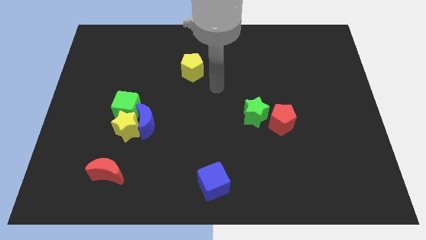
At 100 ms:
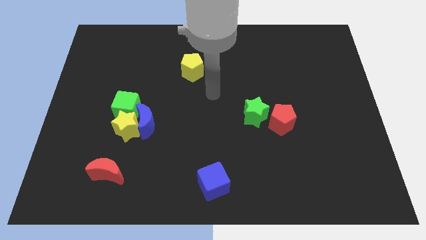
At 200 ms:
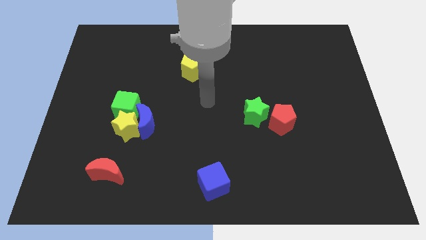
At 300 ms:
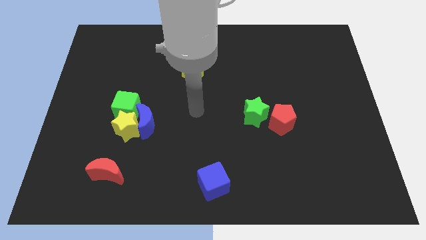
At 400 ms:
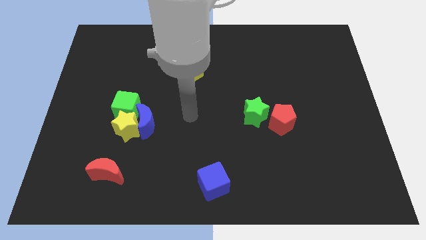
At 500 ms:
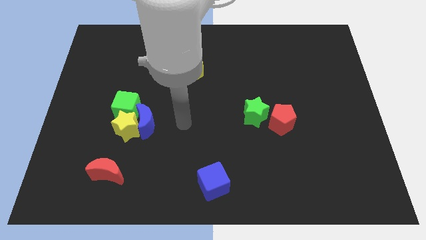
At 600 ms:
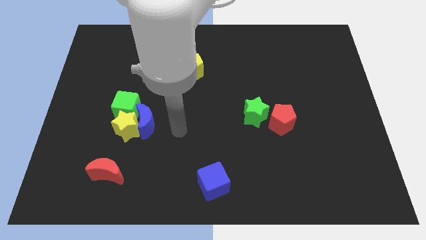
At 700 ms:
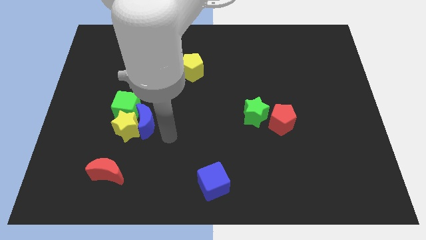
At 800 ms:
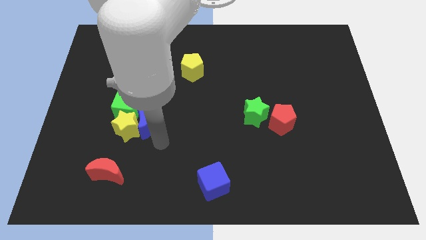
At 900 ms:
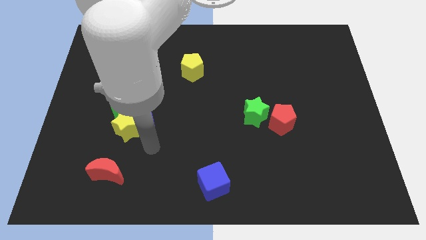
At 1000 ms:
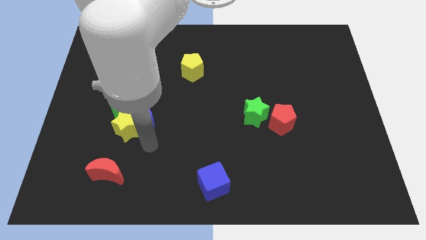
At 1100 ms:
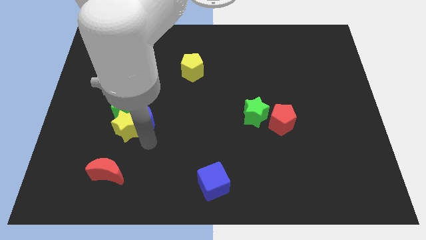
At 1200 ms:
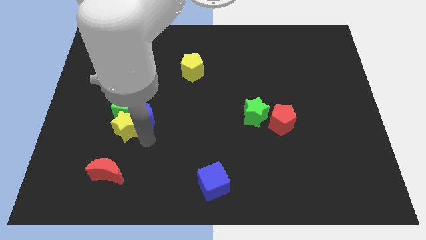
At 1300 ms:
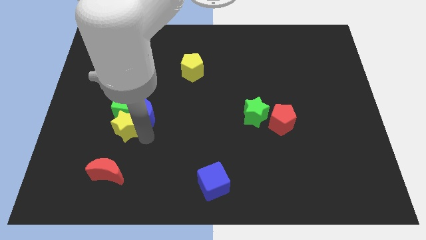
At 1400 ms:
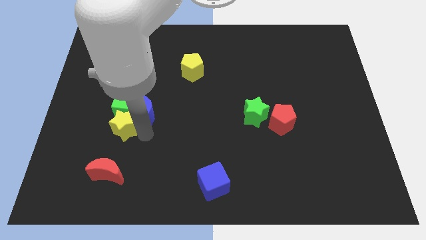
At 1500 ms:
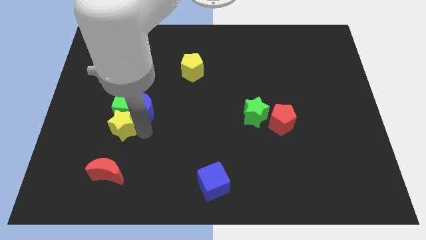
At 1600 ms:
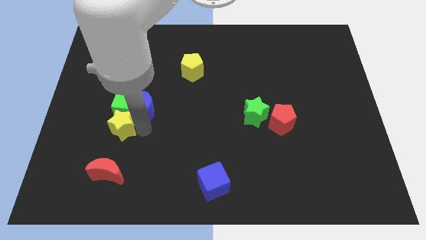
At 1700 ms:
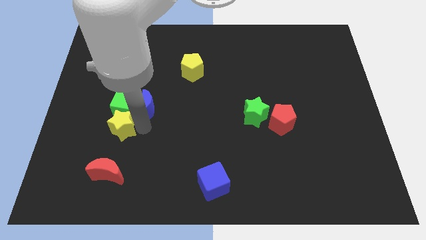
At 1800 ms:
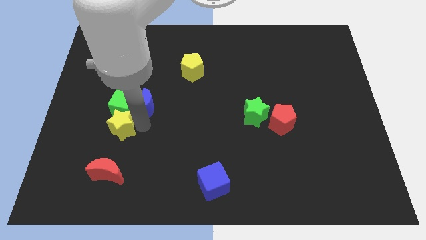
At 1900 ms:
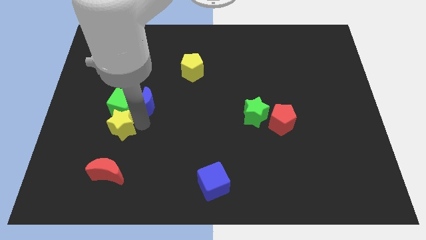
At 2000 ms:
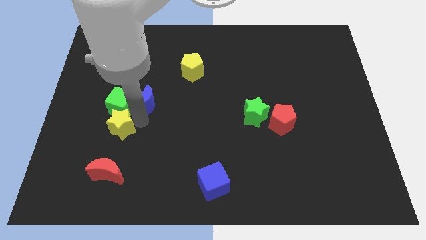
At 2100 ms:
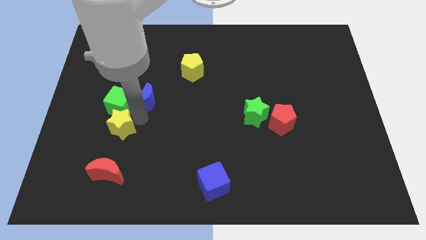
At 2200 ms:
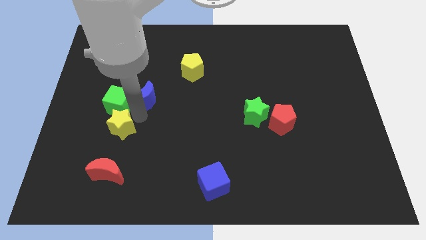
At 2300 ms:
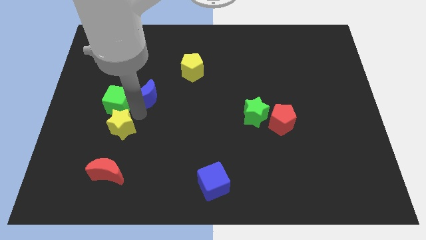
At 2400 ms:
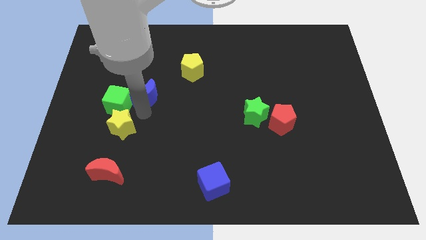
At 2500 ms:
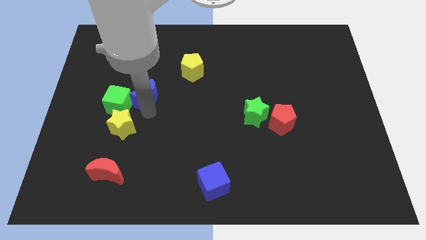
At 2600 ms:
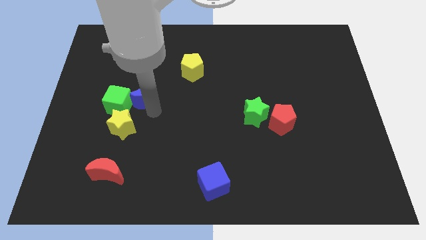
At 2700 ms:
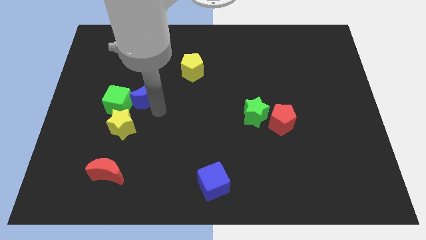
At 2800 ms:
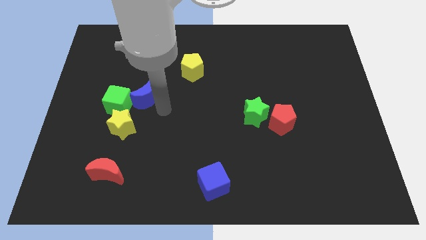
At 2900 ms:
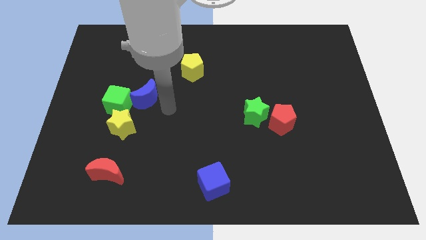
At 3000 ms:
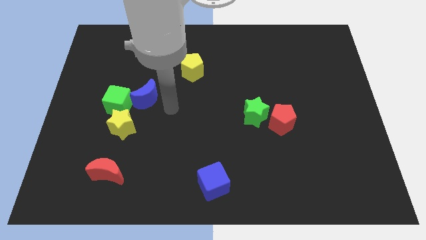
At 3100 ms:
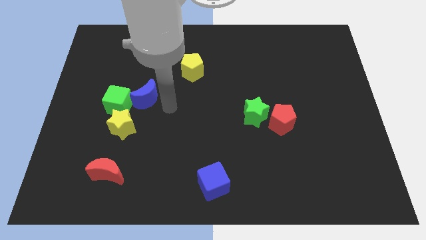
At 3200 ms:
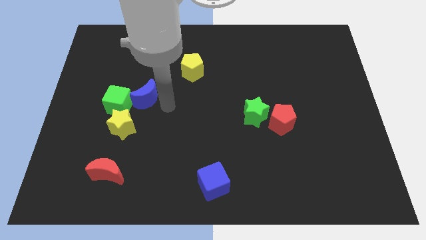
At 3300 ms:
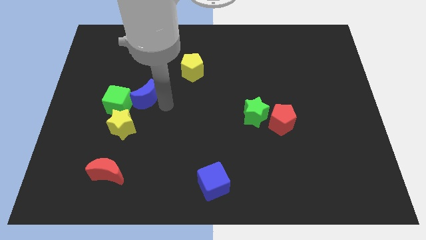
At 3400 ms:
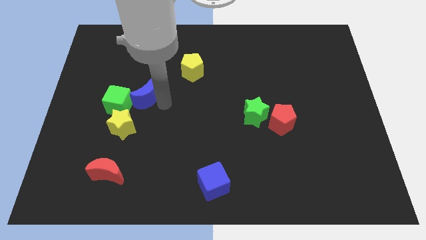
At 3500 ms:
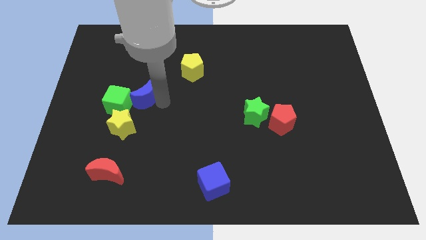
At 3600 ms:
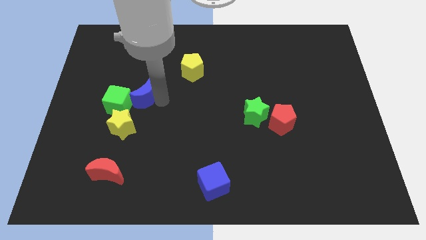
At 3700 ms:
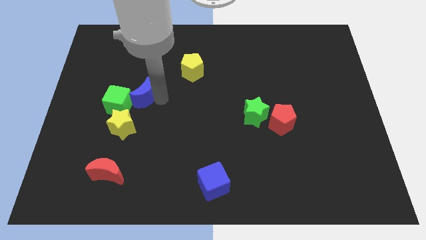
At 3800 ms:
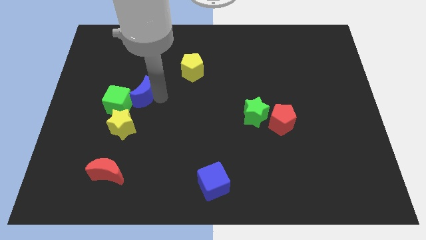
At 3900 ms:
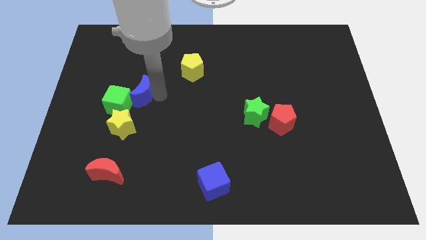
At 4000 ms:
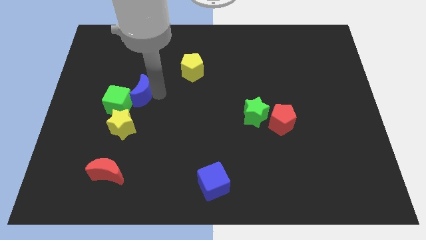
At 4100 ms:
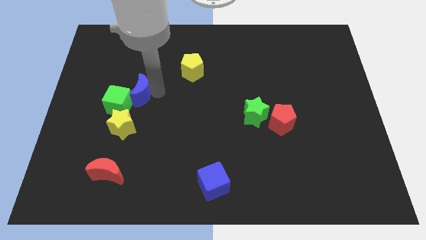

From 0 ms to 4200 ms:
slightly move the blue moon up and left

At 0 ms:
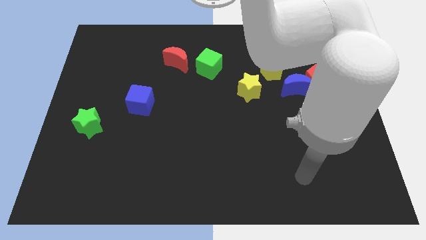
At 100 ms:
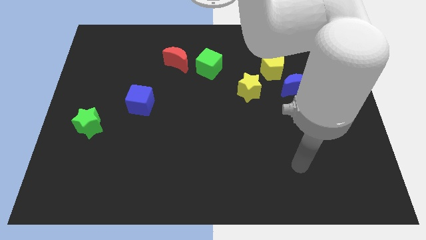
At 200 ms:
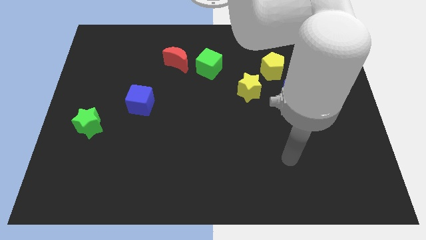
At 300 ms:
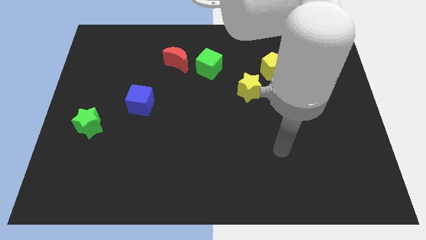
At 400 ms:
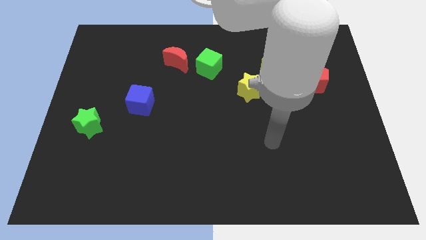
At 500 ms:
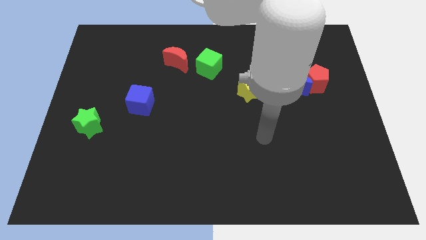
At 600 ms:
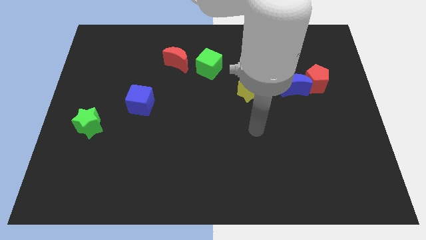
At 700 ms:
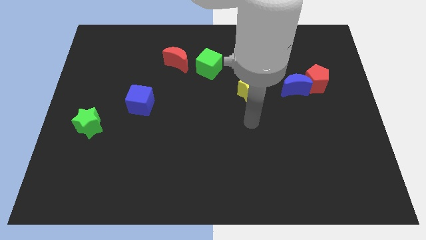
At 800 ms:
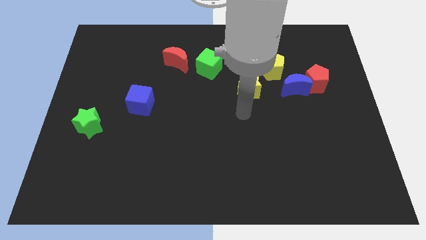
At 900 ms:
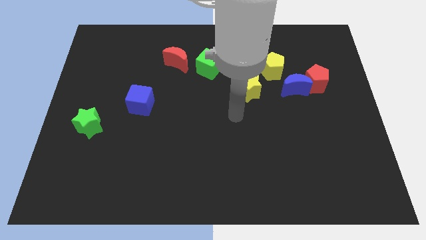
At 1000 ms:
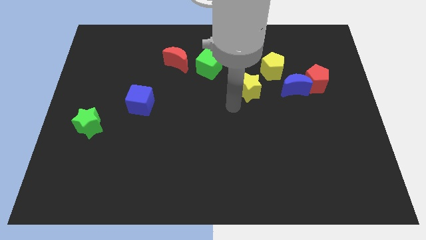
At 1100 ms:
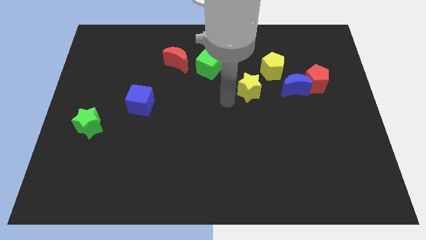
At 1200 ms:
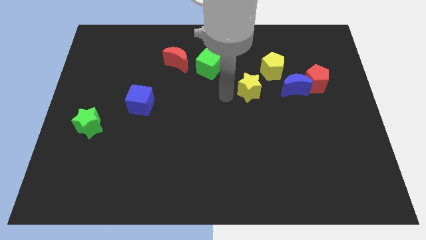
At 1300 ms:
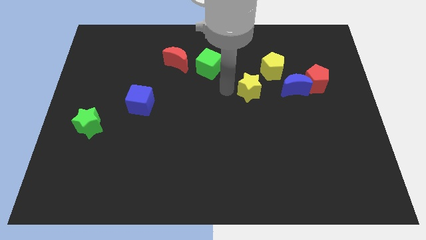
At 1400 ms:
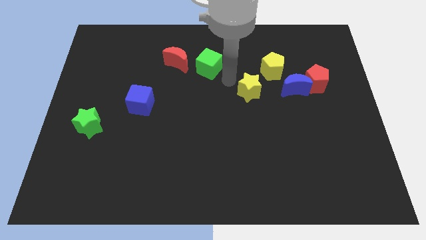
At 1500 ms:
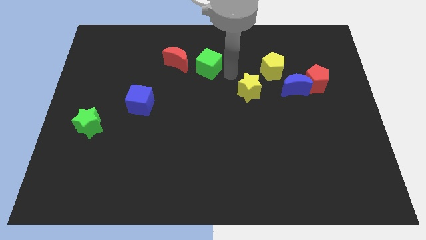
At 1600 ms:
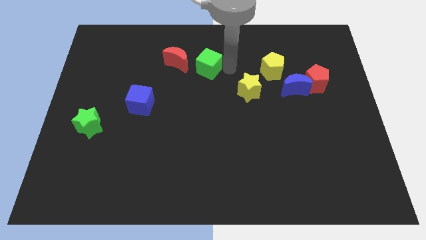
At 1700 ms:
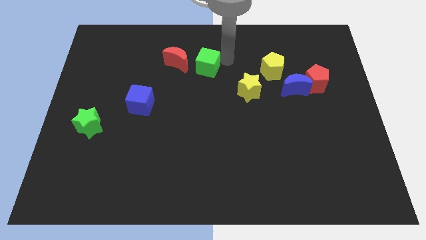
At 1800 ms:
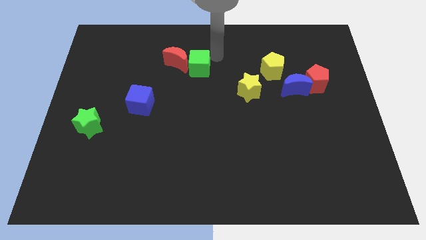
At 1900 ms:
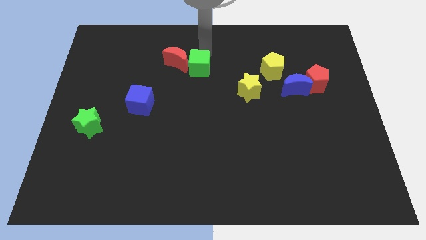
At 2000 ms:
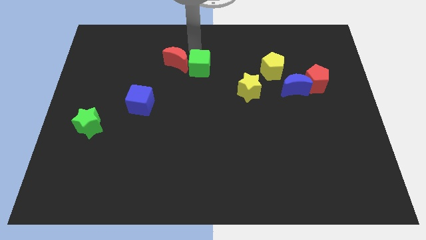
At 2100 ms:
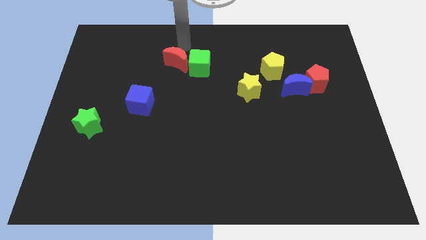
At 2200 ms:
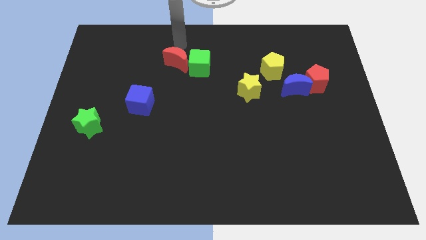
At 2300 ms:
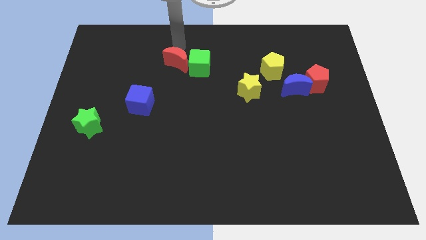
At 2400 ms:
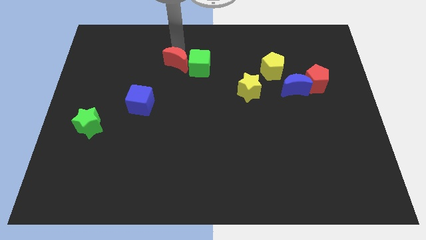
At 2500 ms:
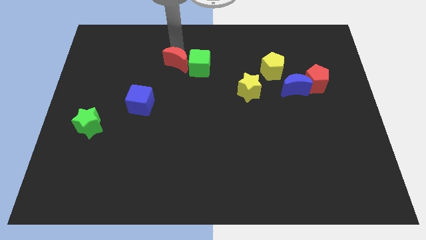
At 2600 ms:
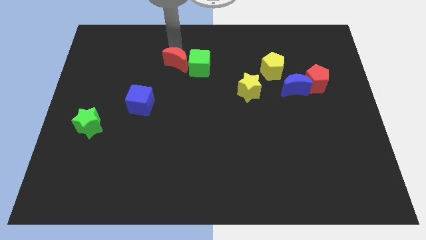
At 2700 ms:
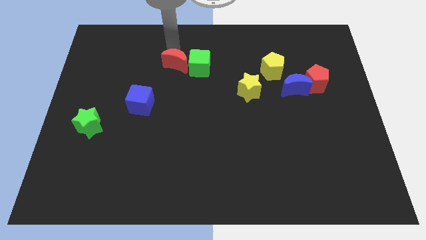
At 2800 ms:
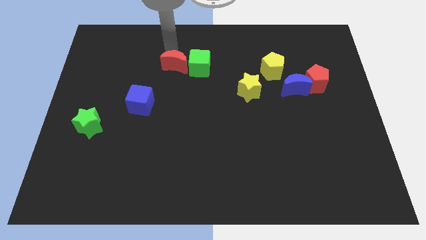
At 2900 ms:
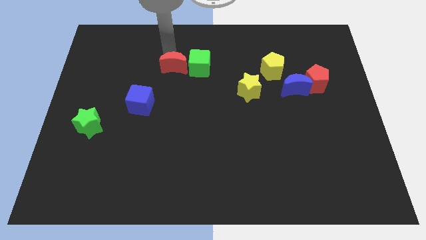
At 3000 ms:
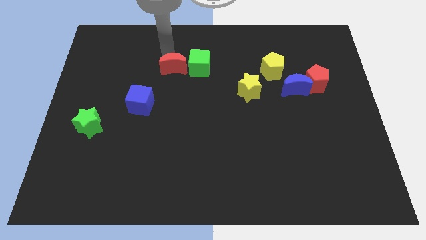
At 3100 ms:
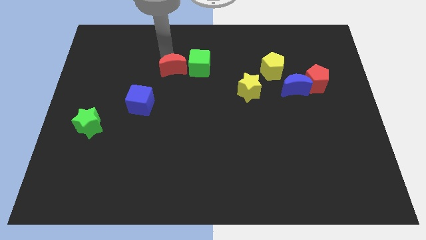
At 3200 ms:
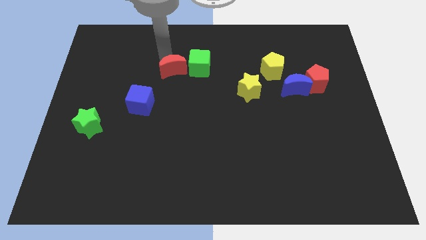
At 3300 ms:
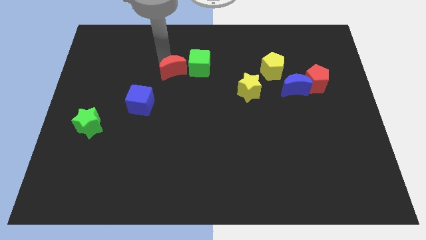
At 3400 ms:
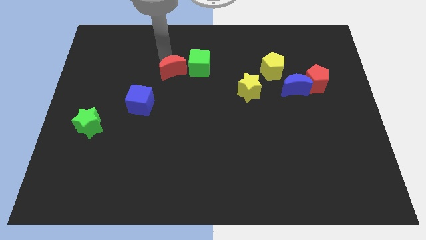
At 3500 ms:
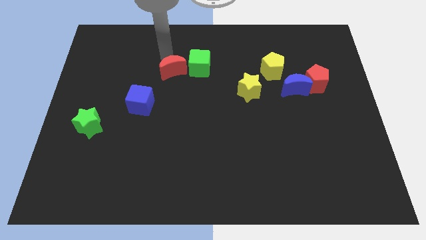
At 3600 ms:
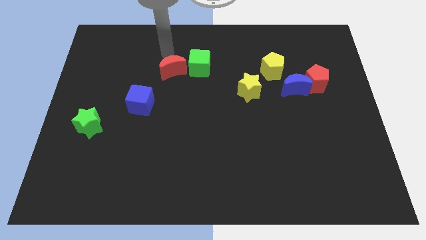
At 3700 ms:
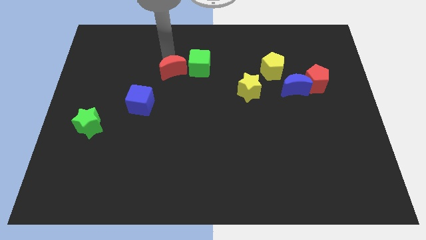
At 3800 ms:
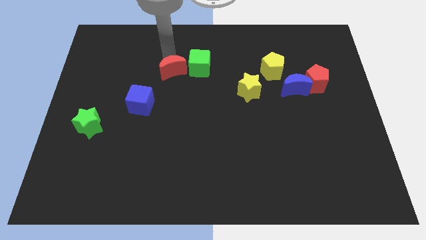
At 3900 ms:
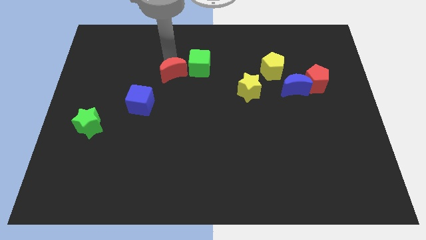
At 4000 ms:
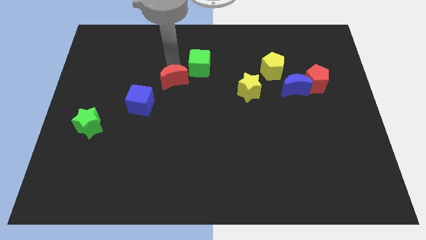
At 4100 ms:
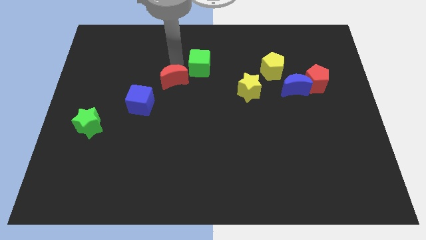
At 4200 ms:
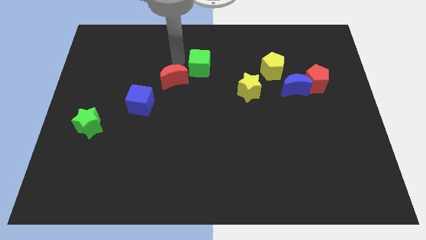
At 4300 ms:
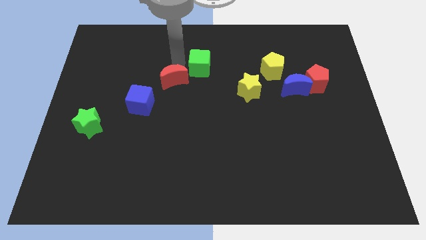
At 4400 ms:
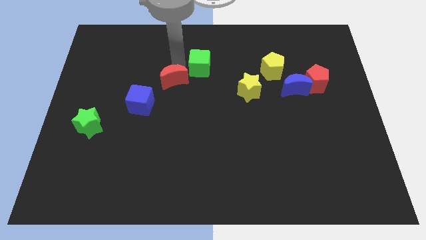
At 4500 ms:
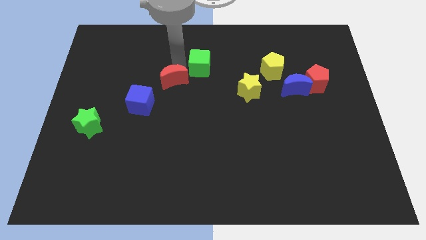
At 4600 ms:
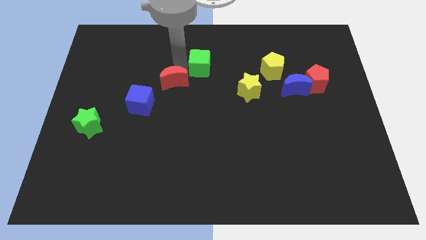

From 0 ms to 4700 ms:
slightly push the red moon down
